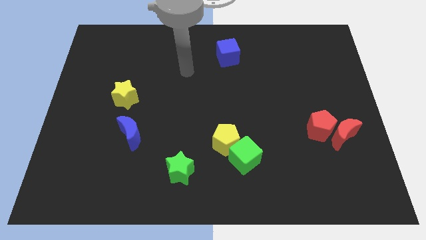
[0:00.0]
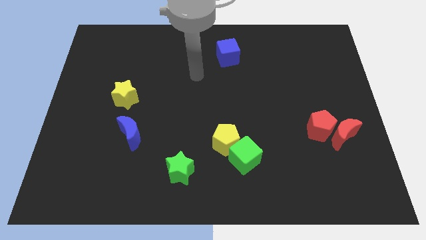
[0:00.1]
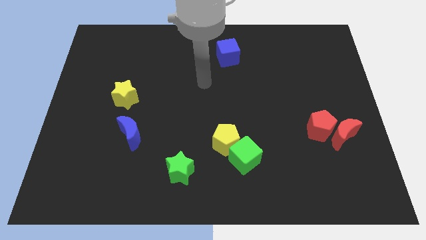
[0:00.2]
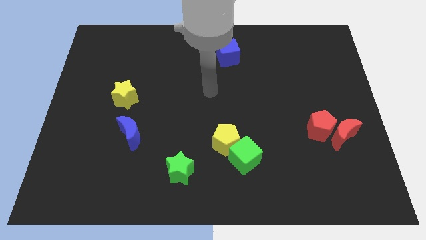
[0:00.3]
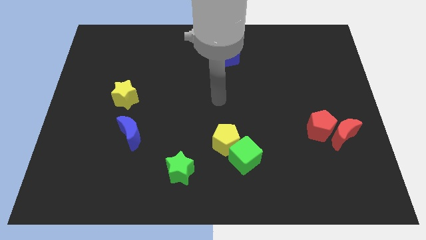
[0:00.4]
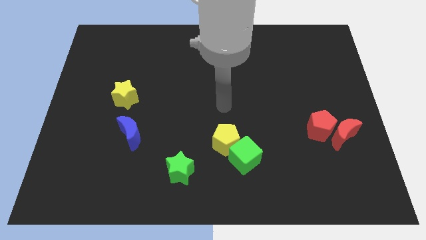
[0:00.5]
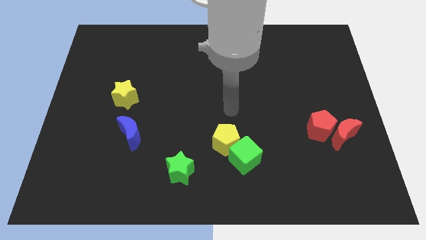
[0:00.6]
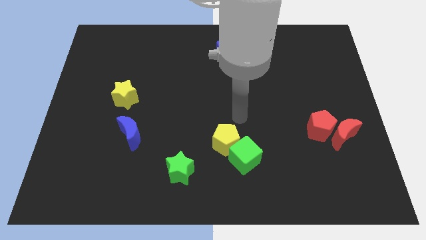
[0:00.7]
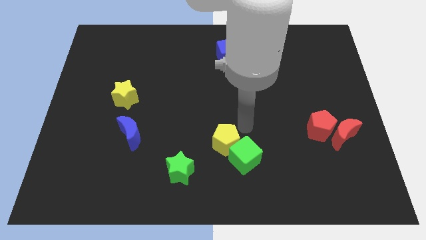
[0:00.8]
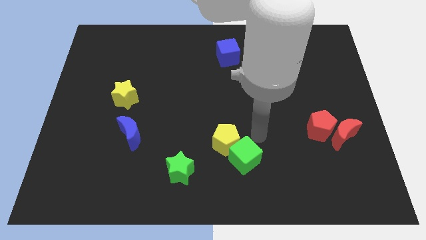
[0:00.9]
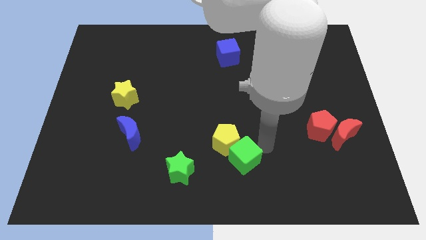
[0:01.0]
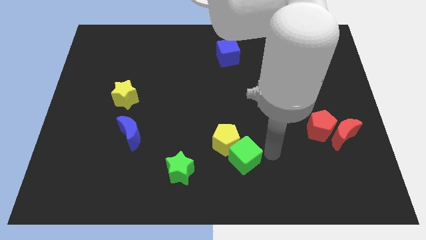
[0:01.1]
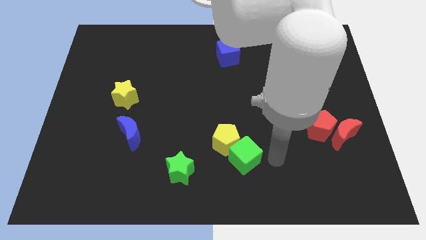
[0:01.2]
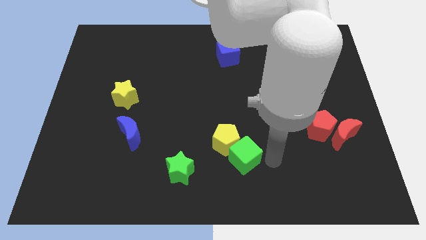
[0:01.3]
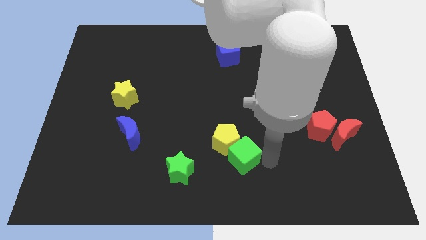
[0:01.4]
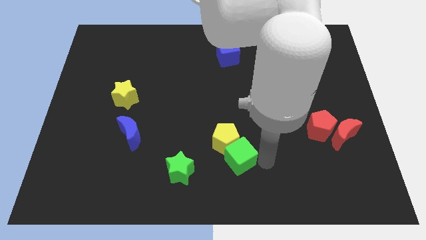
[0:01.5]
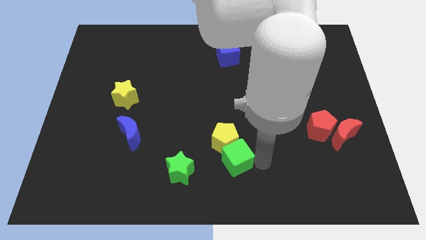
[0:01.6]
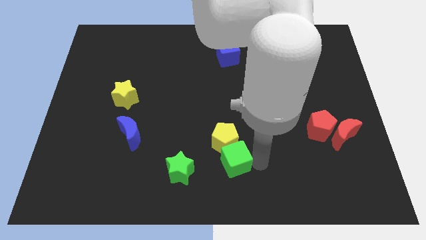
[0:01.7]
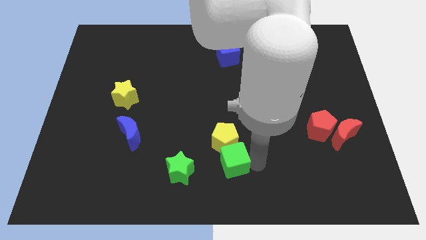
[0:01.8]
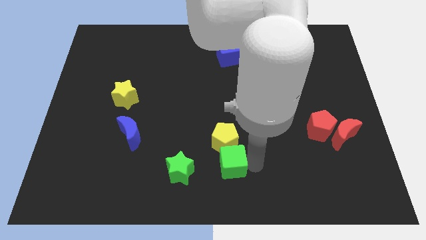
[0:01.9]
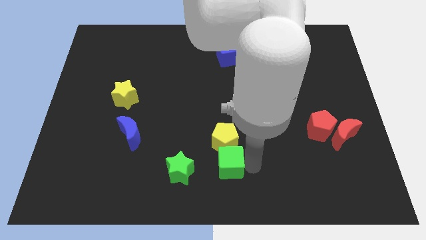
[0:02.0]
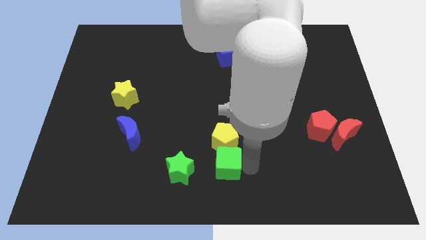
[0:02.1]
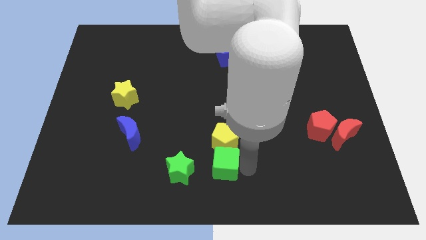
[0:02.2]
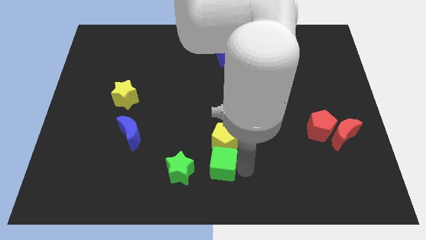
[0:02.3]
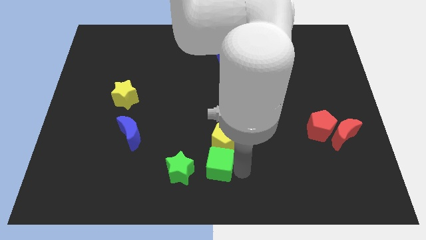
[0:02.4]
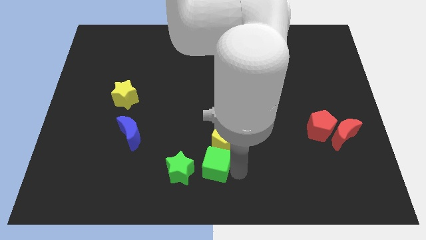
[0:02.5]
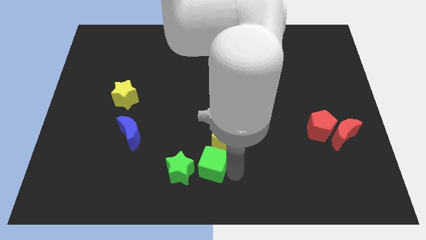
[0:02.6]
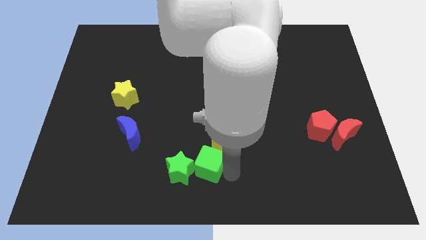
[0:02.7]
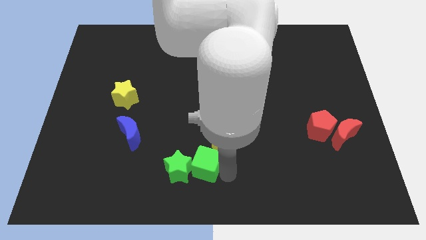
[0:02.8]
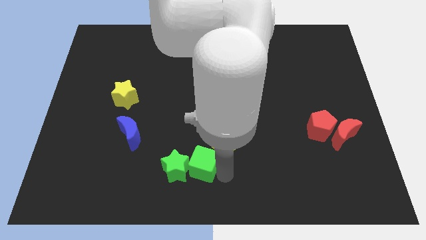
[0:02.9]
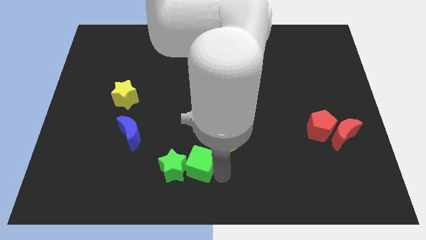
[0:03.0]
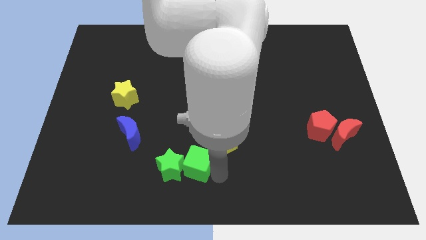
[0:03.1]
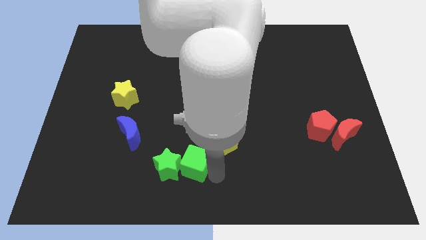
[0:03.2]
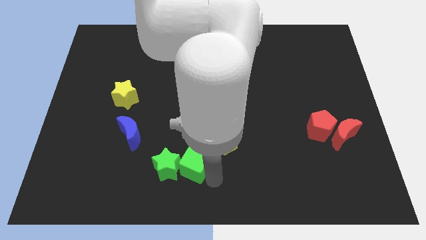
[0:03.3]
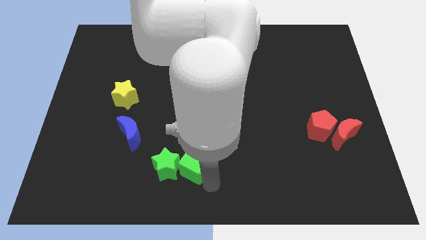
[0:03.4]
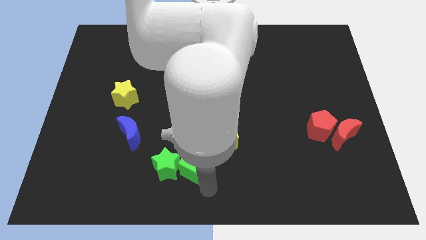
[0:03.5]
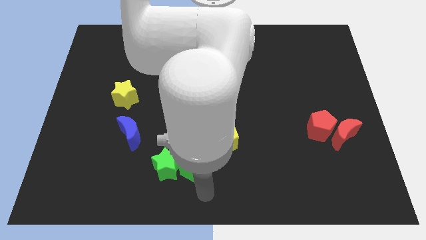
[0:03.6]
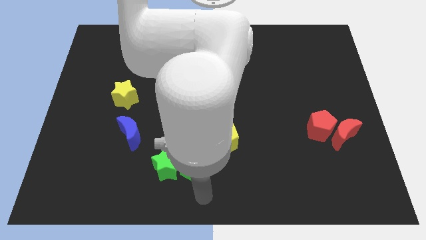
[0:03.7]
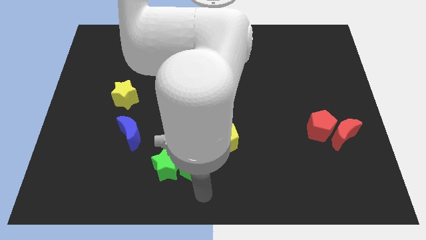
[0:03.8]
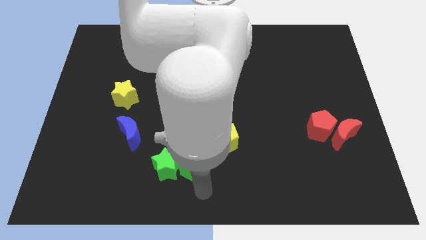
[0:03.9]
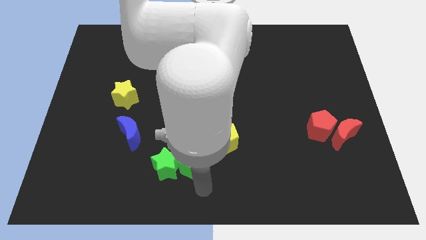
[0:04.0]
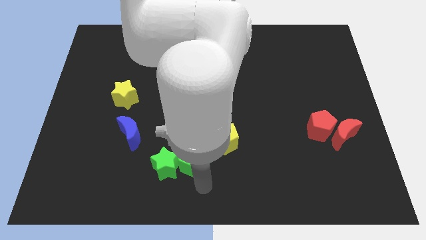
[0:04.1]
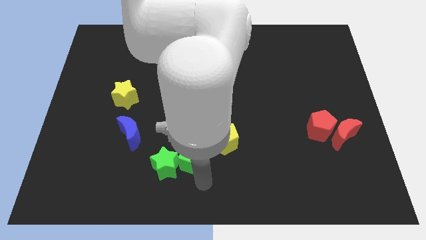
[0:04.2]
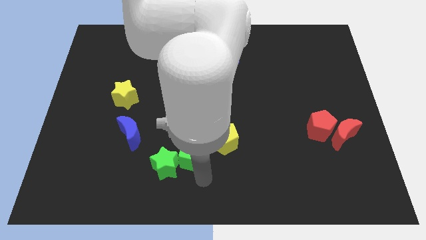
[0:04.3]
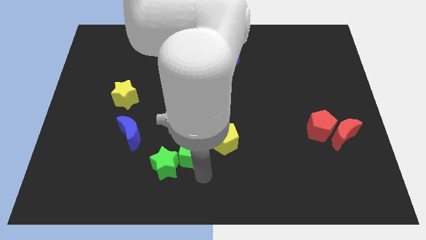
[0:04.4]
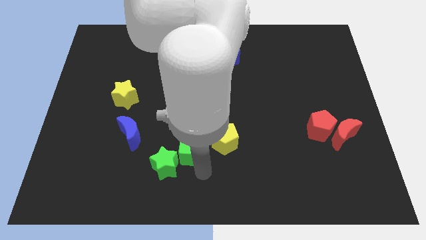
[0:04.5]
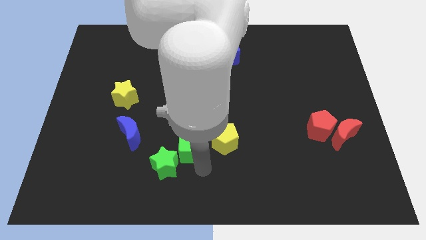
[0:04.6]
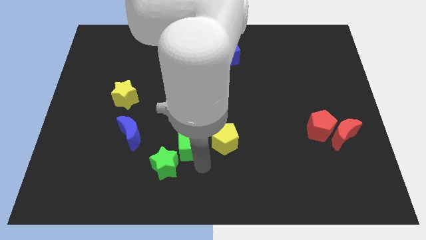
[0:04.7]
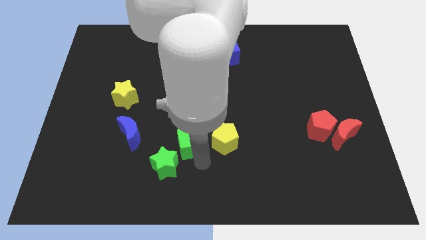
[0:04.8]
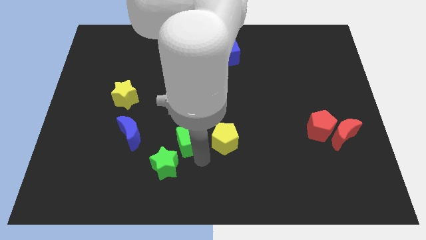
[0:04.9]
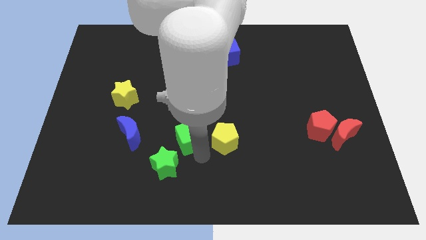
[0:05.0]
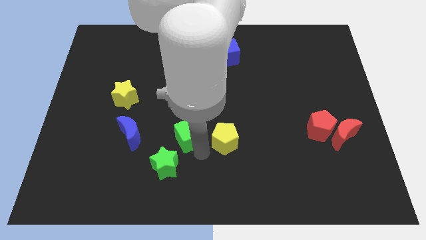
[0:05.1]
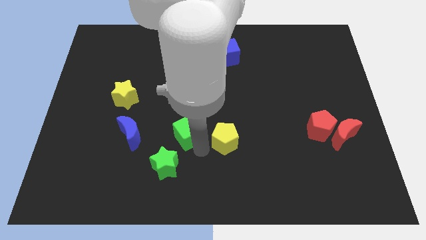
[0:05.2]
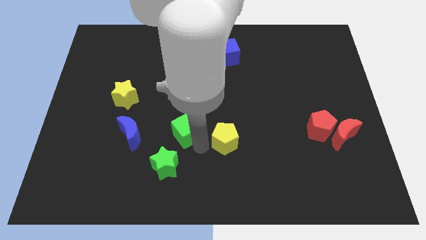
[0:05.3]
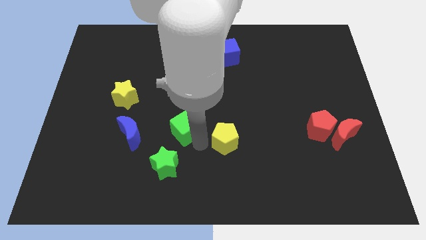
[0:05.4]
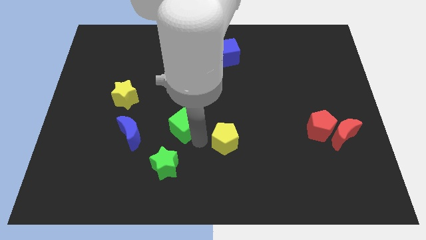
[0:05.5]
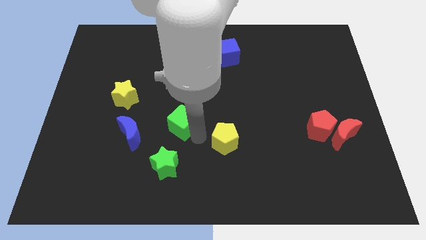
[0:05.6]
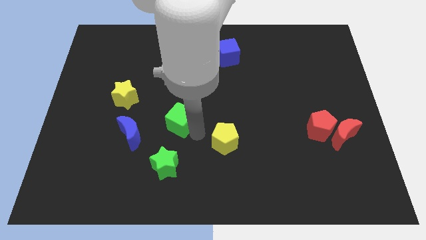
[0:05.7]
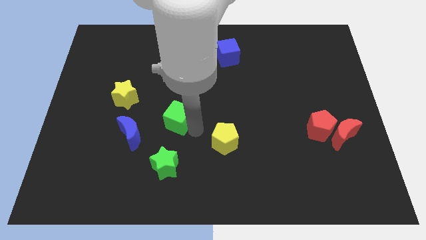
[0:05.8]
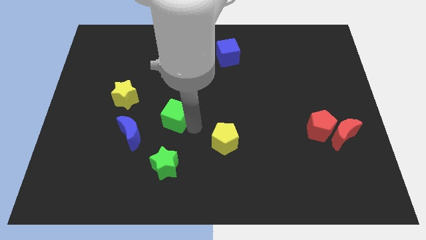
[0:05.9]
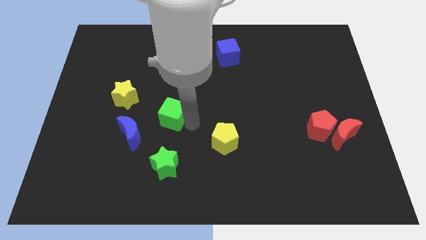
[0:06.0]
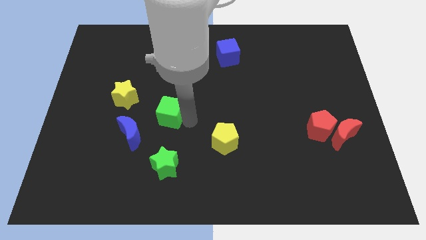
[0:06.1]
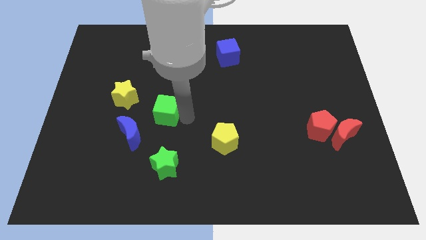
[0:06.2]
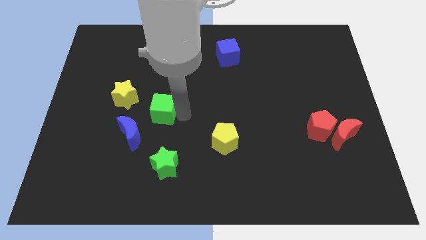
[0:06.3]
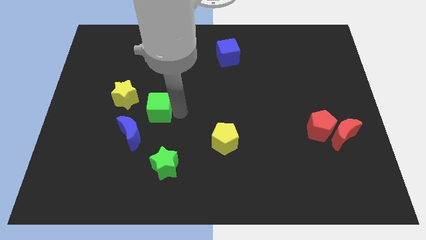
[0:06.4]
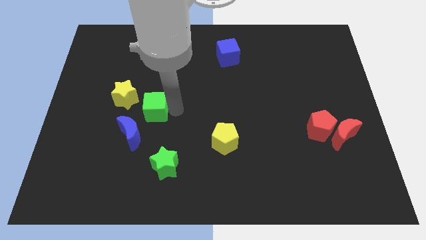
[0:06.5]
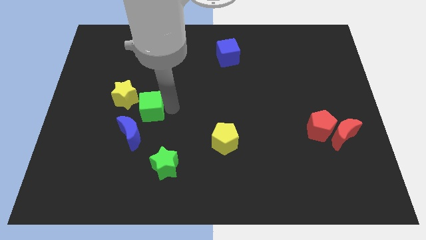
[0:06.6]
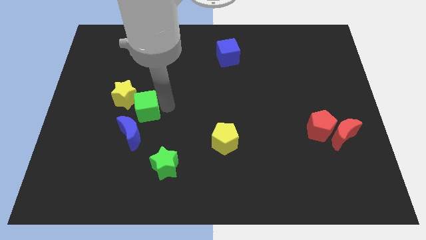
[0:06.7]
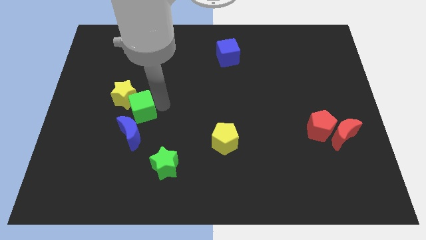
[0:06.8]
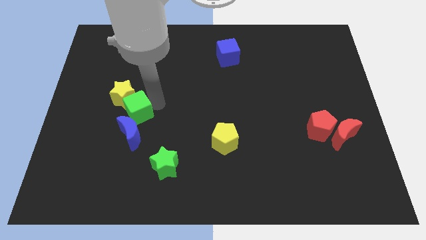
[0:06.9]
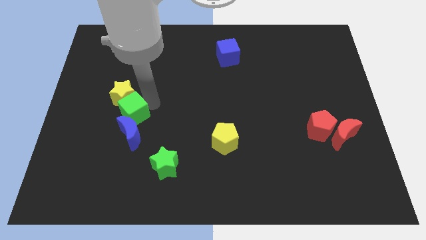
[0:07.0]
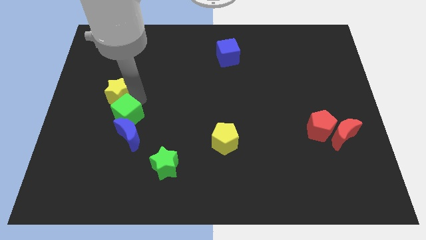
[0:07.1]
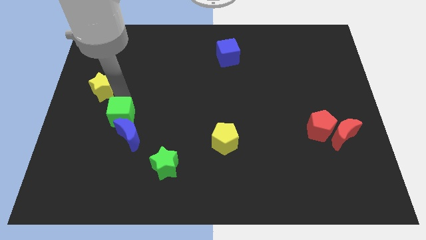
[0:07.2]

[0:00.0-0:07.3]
slide the green cube left

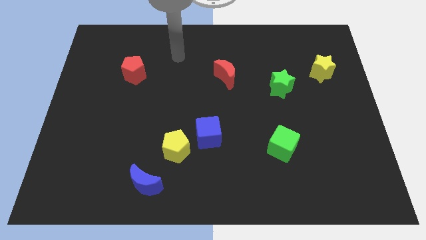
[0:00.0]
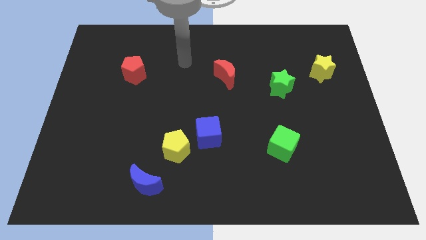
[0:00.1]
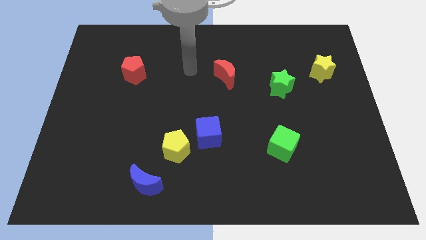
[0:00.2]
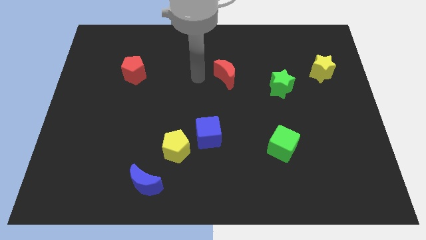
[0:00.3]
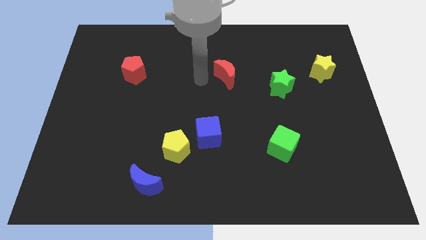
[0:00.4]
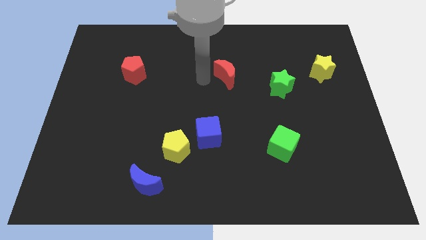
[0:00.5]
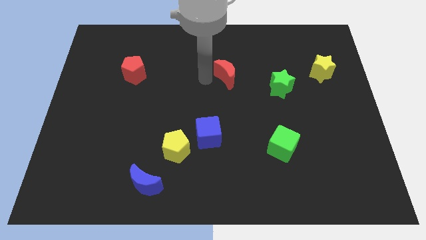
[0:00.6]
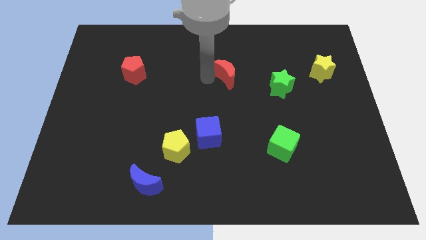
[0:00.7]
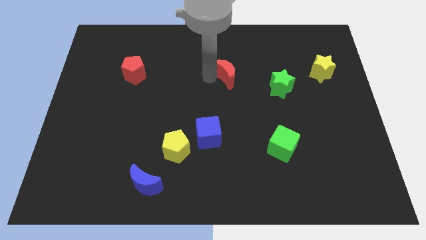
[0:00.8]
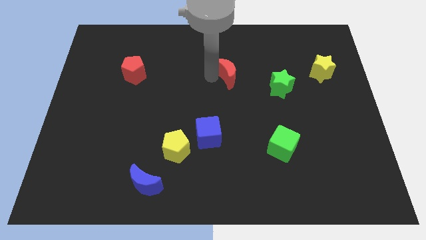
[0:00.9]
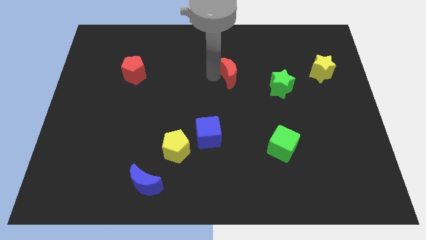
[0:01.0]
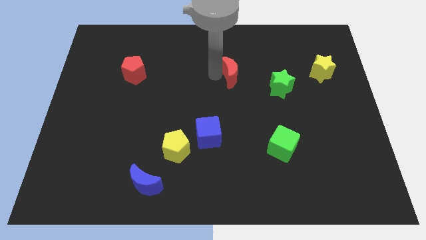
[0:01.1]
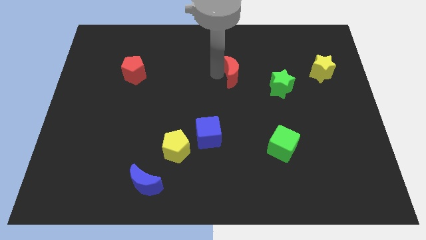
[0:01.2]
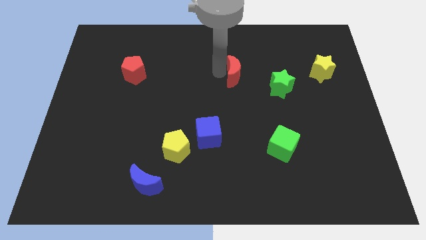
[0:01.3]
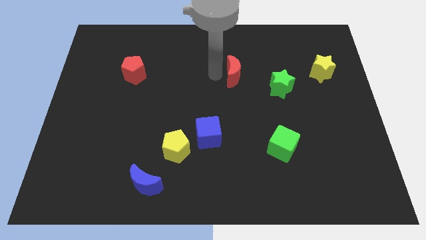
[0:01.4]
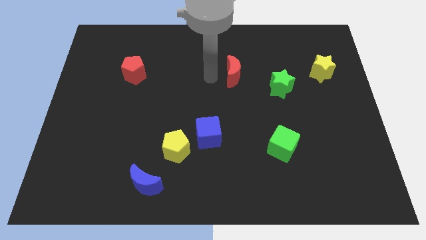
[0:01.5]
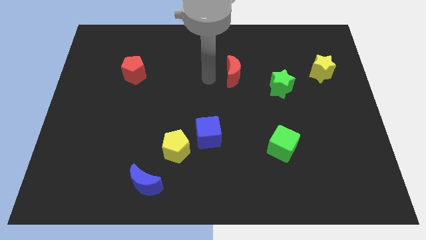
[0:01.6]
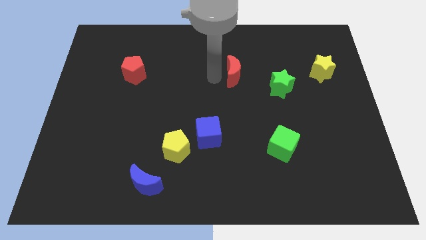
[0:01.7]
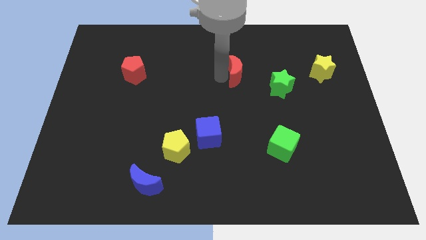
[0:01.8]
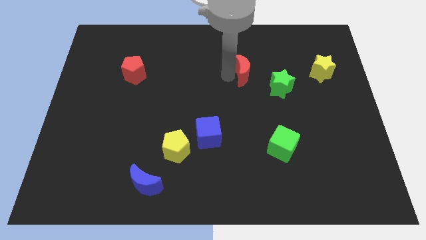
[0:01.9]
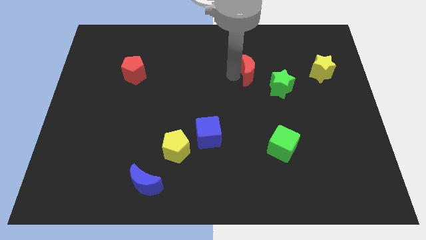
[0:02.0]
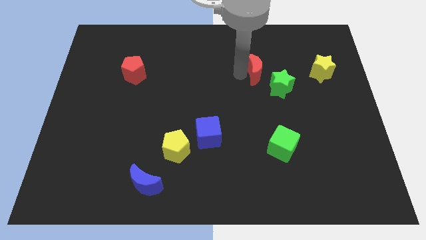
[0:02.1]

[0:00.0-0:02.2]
slightly push the red moon right
